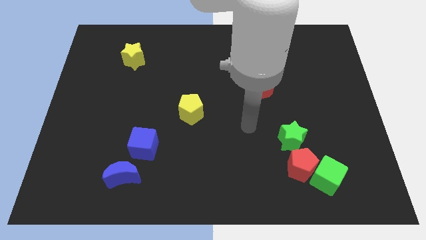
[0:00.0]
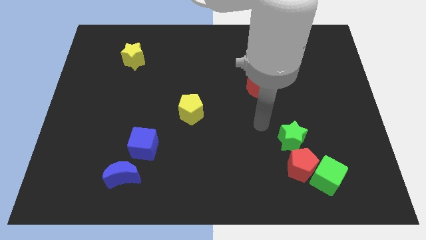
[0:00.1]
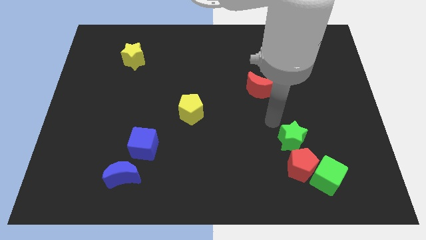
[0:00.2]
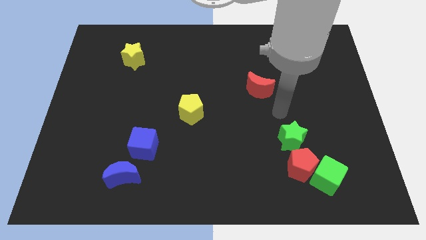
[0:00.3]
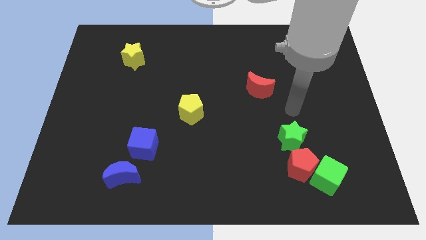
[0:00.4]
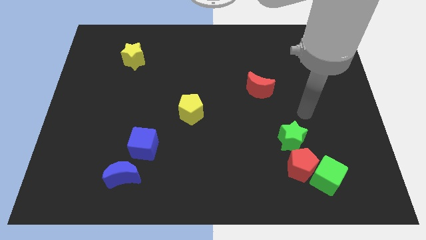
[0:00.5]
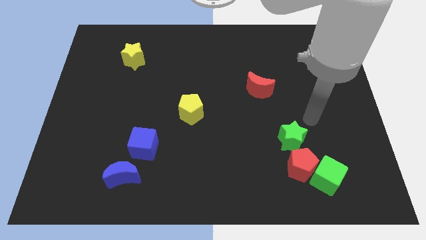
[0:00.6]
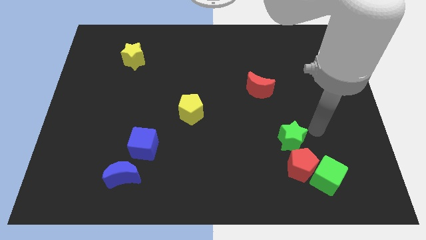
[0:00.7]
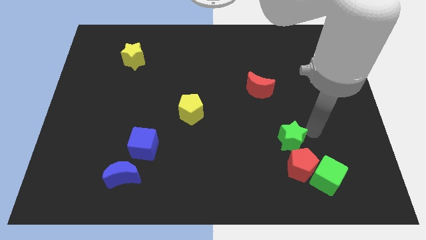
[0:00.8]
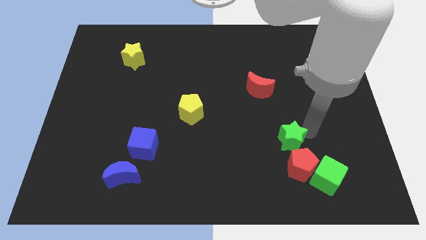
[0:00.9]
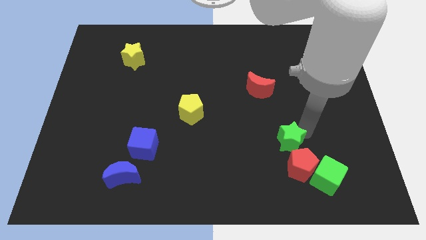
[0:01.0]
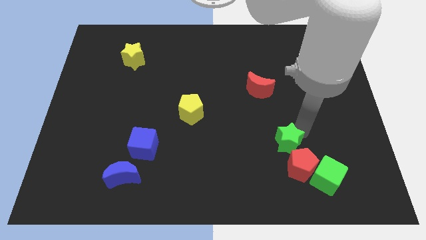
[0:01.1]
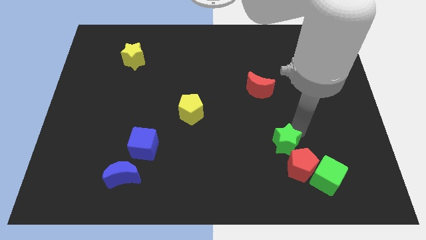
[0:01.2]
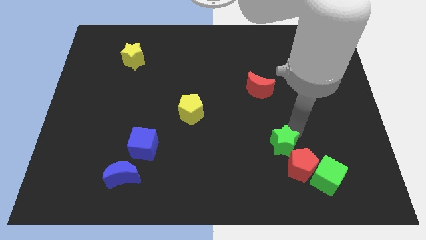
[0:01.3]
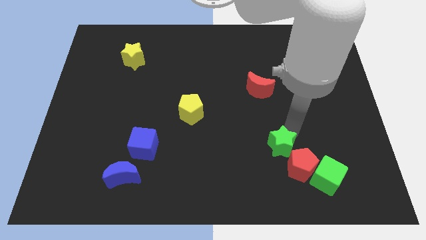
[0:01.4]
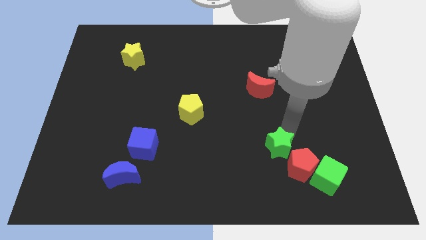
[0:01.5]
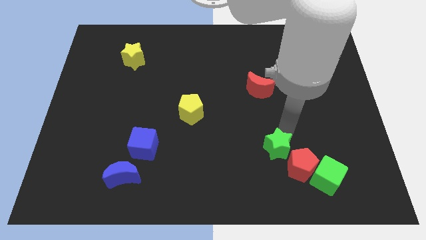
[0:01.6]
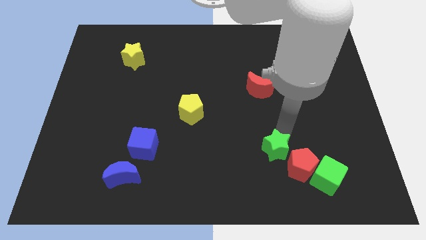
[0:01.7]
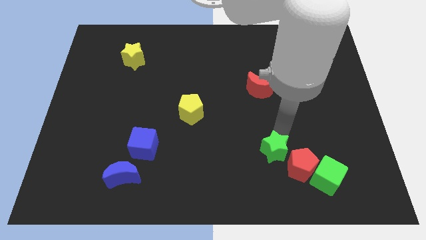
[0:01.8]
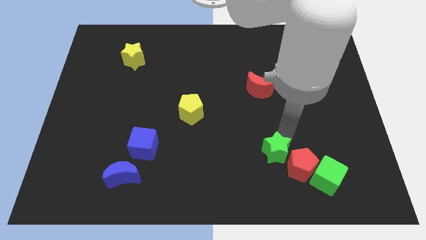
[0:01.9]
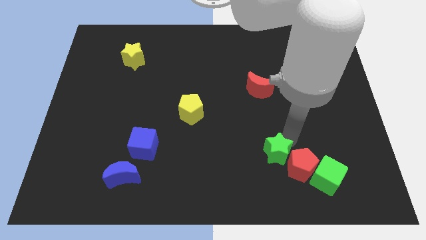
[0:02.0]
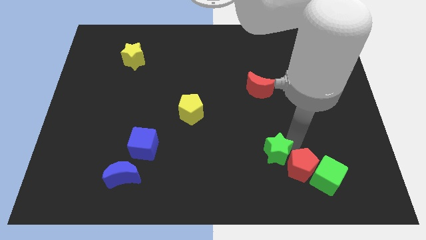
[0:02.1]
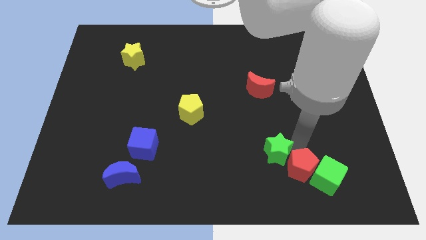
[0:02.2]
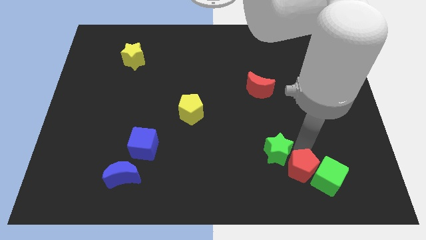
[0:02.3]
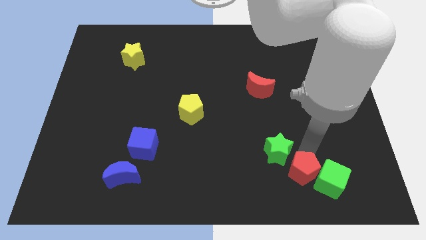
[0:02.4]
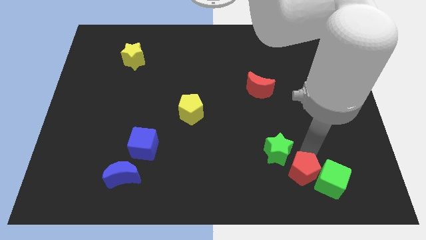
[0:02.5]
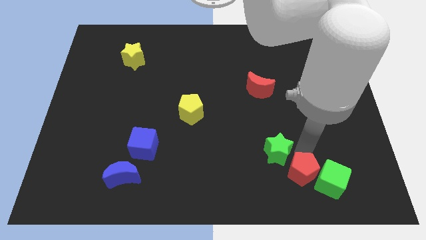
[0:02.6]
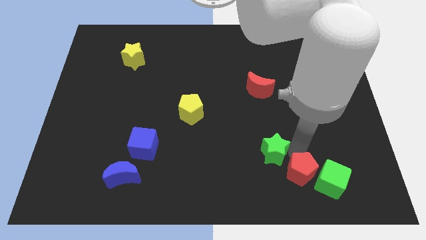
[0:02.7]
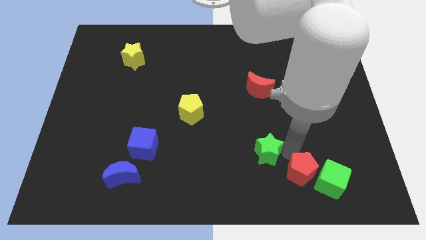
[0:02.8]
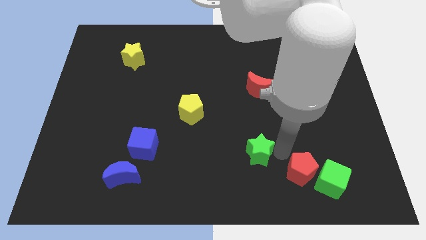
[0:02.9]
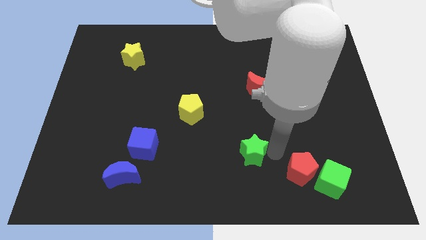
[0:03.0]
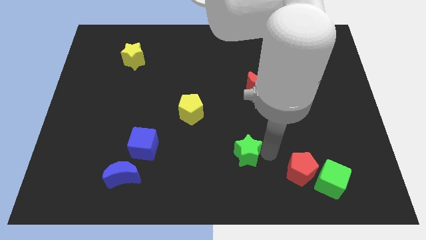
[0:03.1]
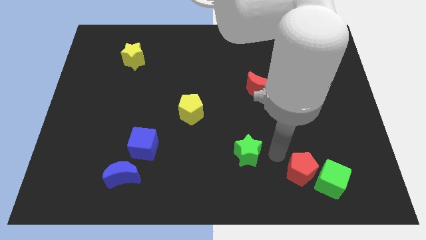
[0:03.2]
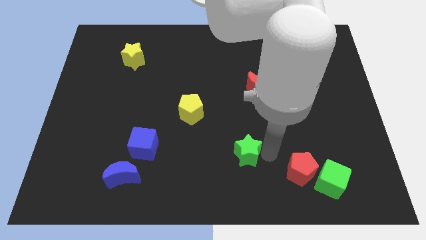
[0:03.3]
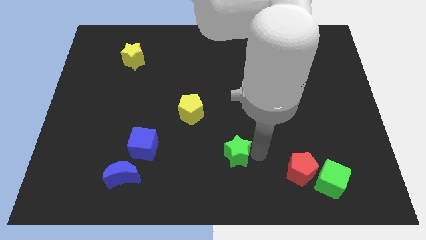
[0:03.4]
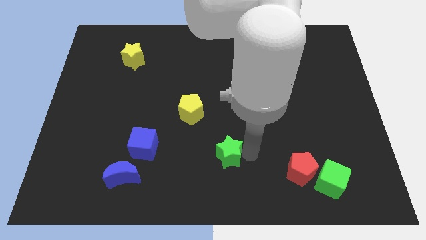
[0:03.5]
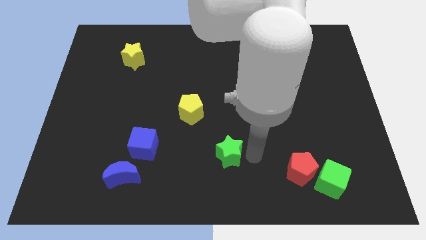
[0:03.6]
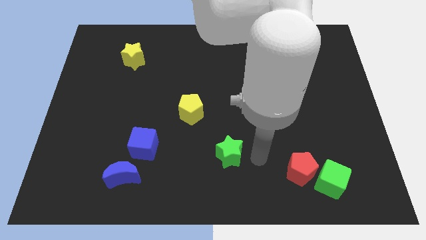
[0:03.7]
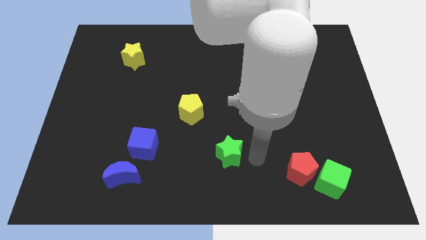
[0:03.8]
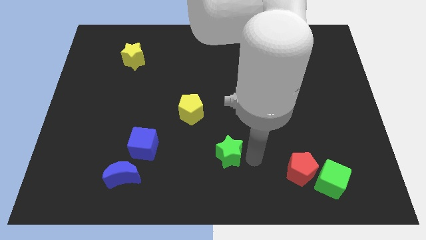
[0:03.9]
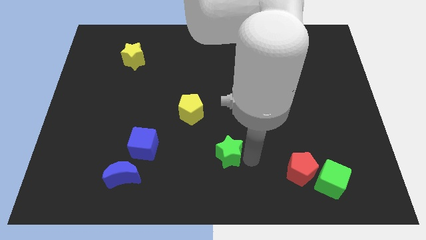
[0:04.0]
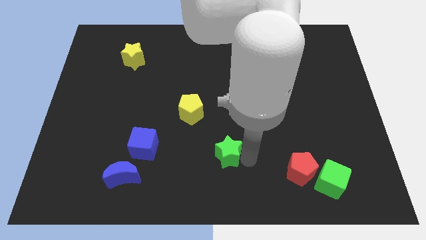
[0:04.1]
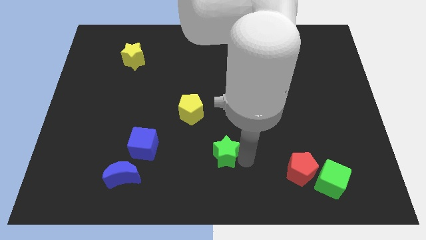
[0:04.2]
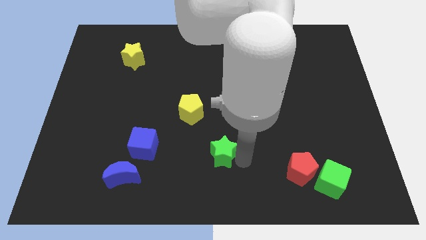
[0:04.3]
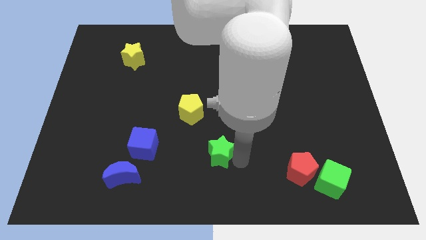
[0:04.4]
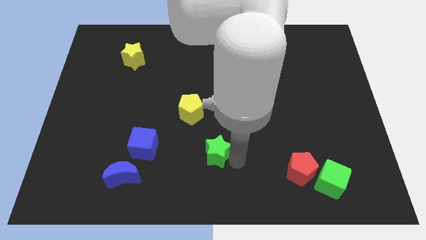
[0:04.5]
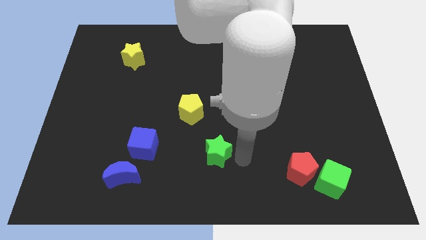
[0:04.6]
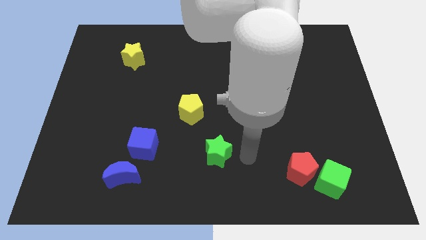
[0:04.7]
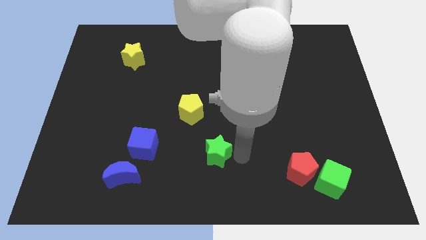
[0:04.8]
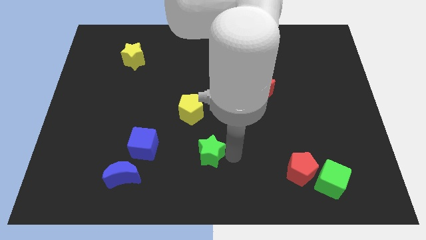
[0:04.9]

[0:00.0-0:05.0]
move the green star below the yellow pentagon

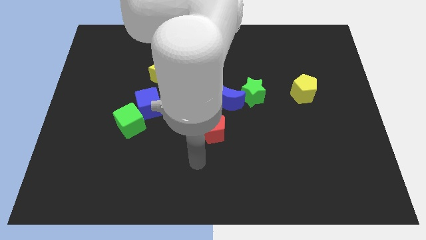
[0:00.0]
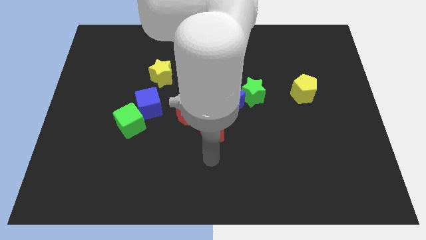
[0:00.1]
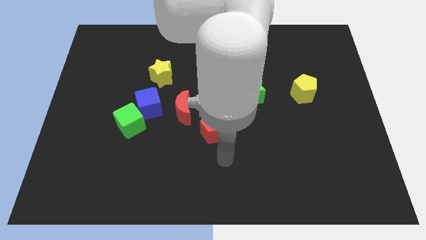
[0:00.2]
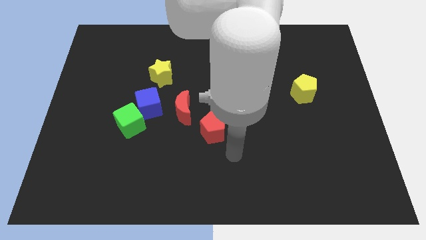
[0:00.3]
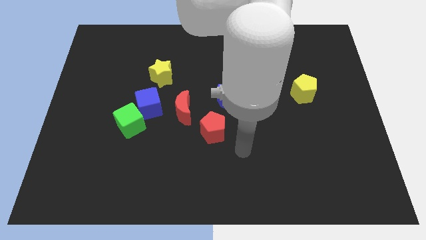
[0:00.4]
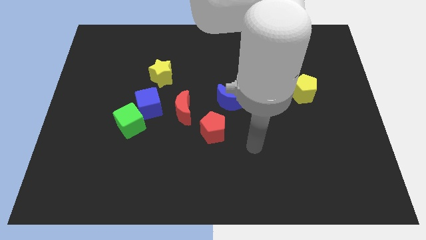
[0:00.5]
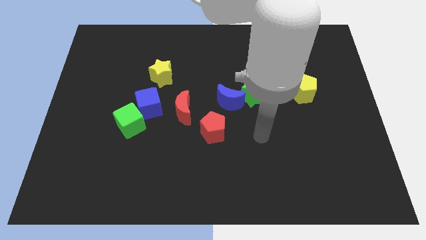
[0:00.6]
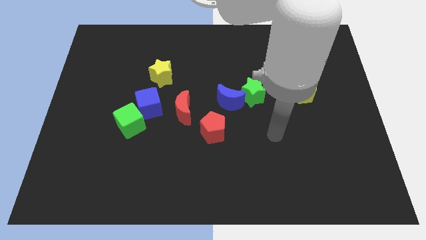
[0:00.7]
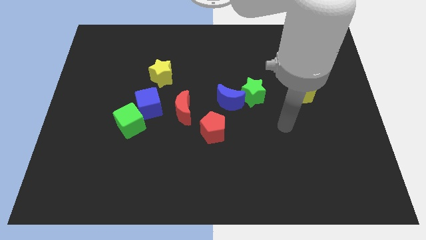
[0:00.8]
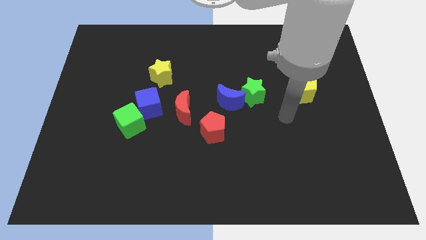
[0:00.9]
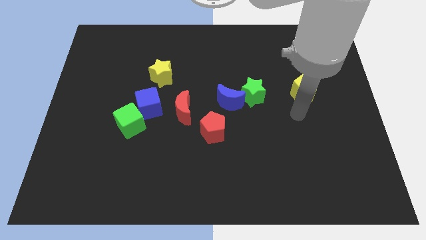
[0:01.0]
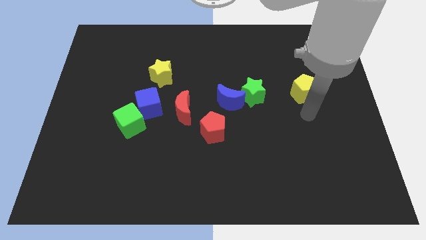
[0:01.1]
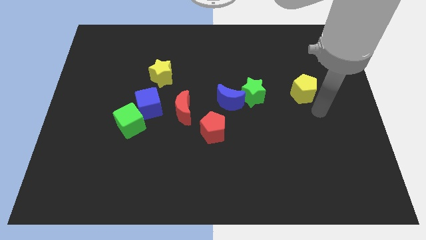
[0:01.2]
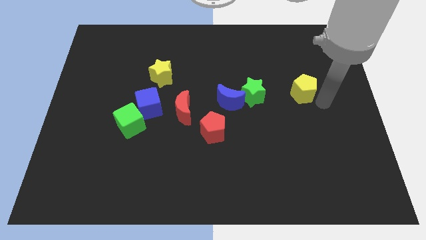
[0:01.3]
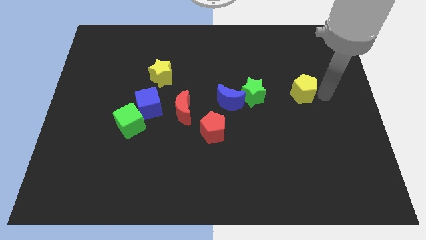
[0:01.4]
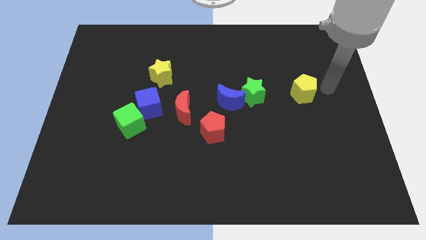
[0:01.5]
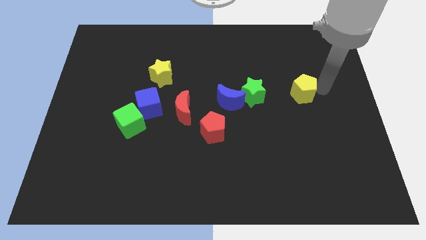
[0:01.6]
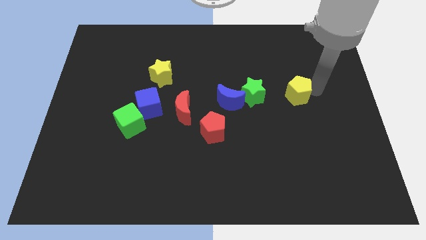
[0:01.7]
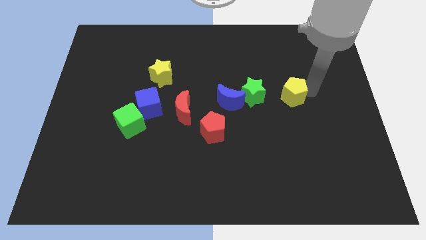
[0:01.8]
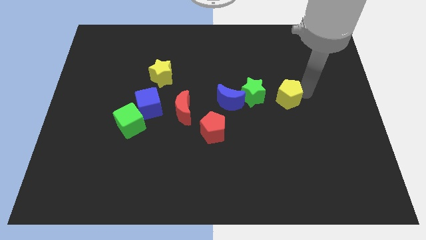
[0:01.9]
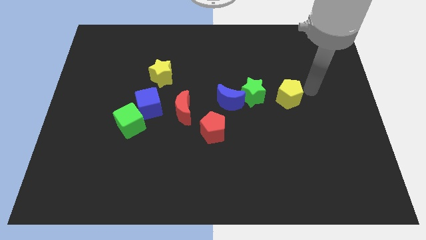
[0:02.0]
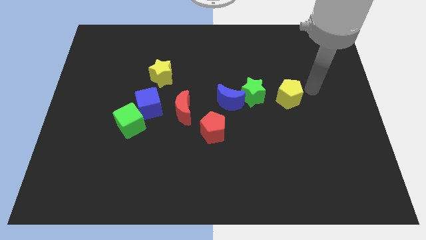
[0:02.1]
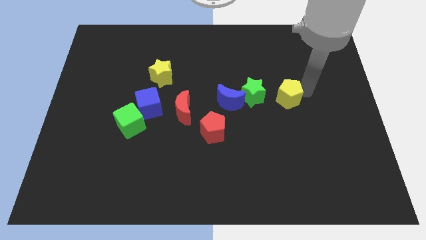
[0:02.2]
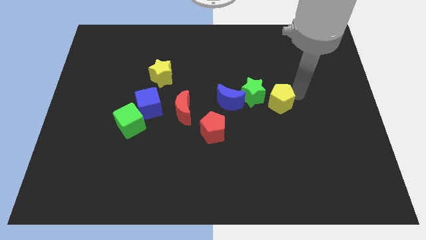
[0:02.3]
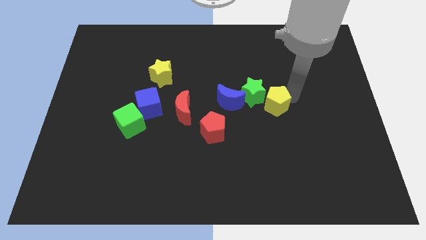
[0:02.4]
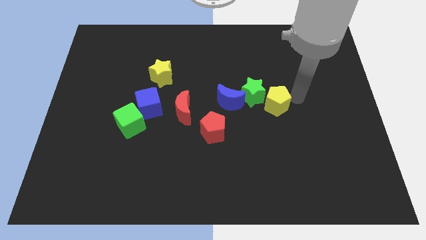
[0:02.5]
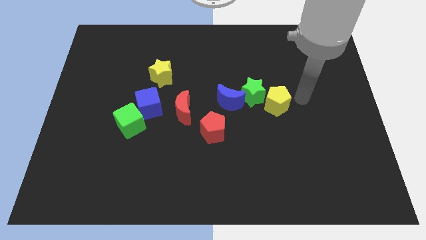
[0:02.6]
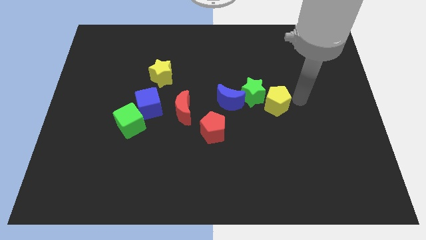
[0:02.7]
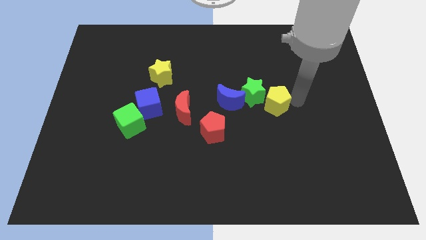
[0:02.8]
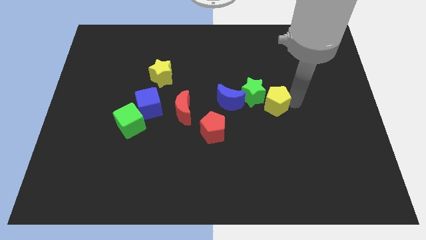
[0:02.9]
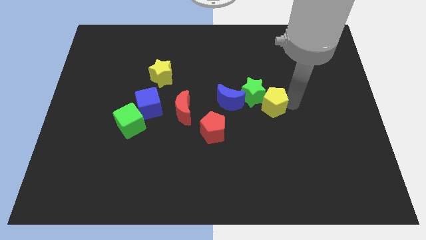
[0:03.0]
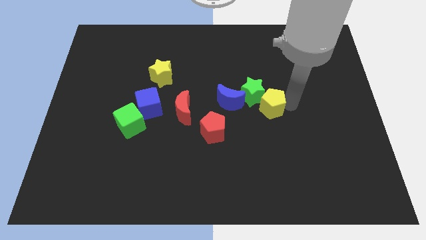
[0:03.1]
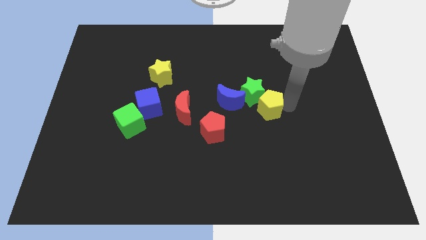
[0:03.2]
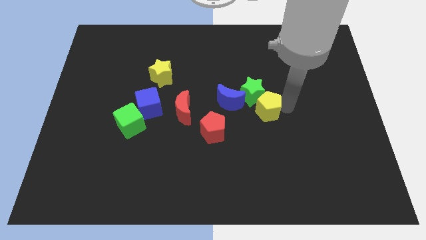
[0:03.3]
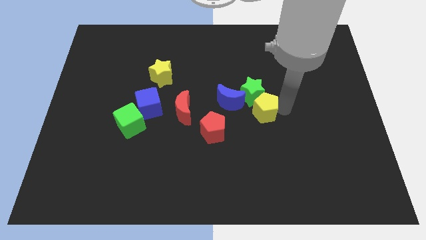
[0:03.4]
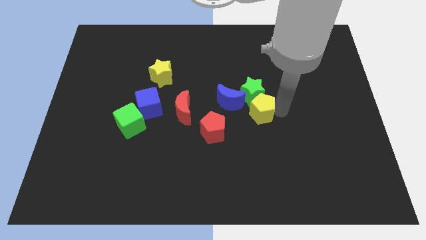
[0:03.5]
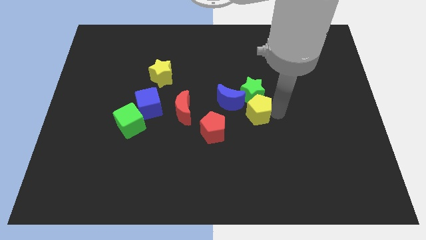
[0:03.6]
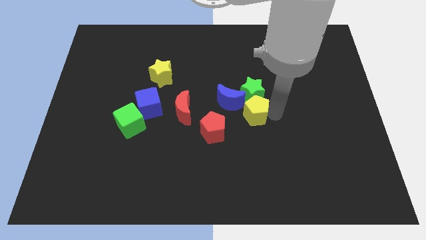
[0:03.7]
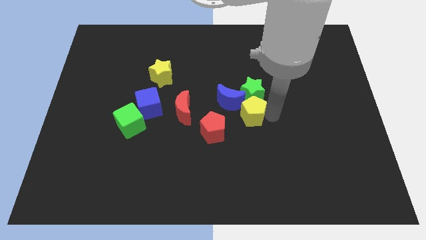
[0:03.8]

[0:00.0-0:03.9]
move the yellow pentagon just right of the red moon

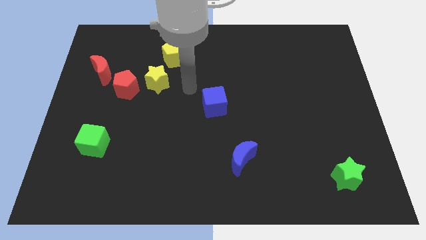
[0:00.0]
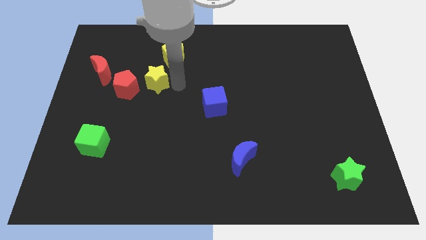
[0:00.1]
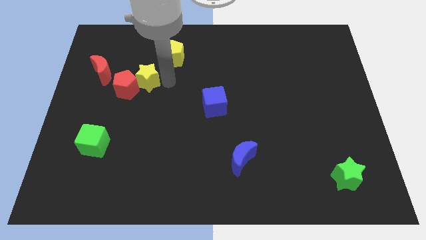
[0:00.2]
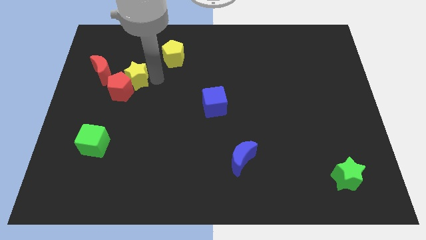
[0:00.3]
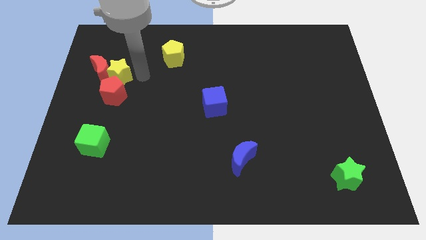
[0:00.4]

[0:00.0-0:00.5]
put the red pentagon below the red moon
